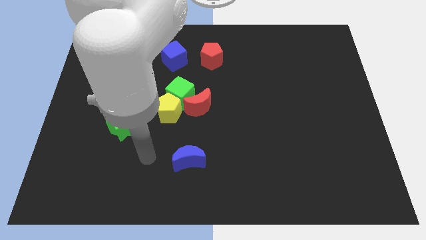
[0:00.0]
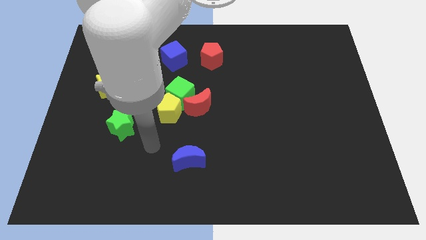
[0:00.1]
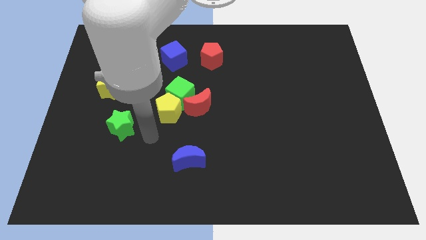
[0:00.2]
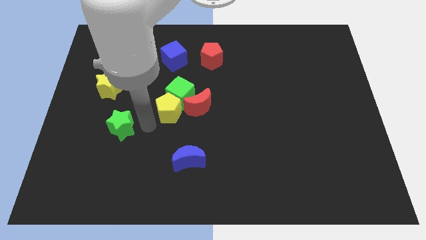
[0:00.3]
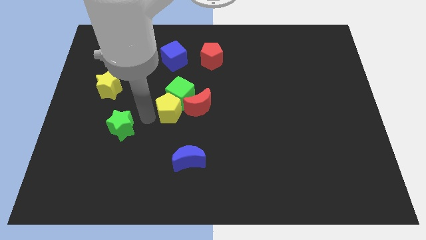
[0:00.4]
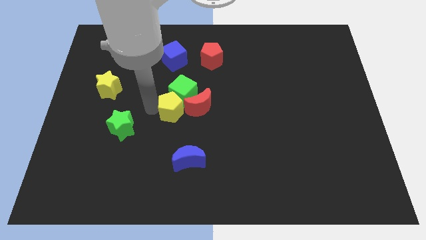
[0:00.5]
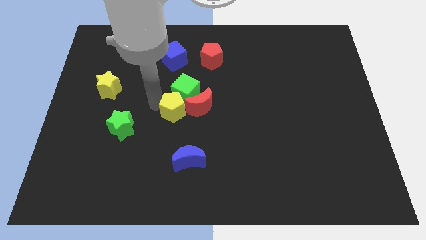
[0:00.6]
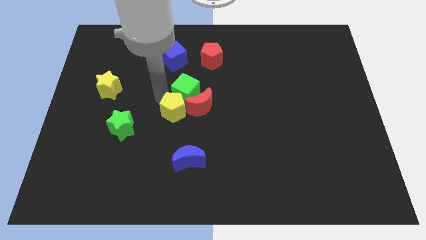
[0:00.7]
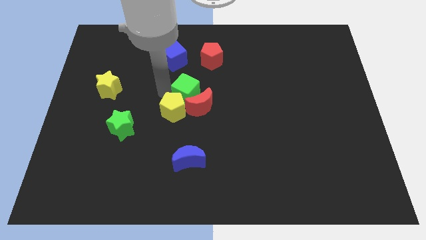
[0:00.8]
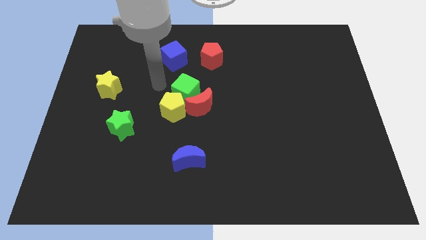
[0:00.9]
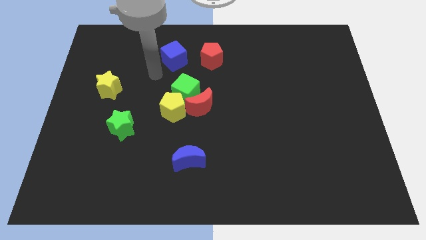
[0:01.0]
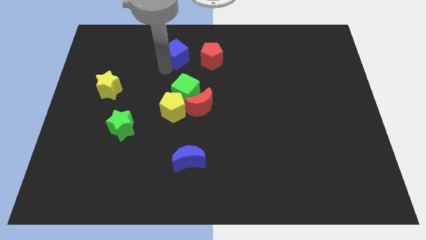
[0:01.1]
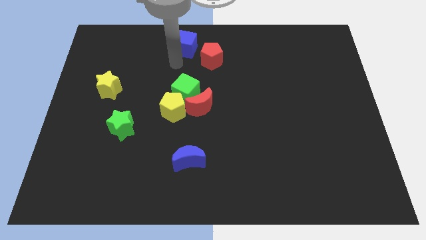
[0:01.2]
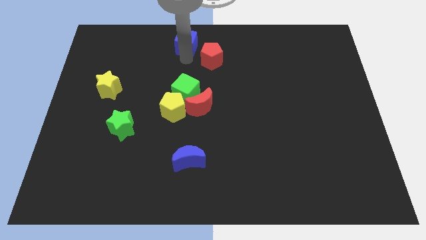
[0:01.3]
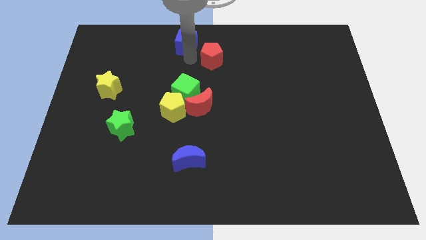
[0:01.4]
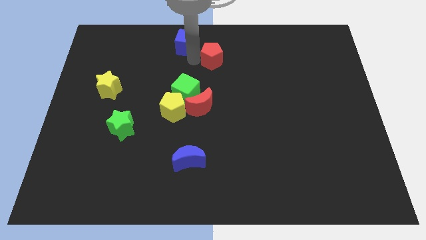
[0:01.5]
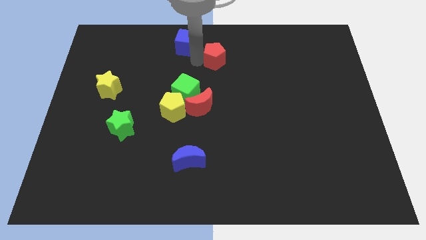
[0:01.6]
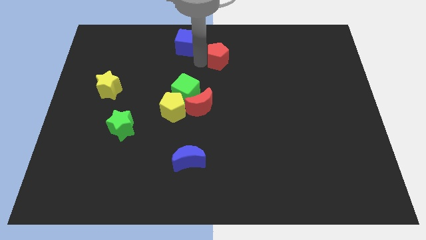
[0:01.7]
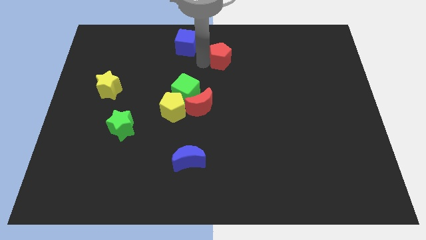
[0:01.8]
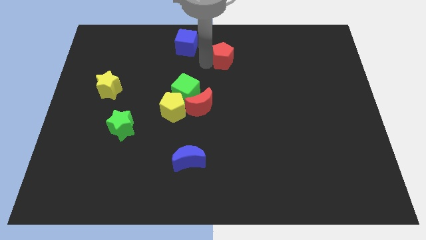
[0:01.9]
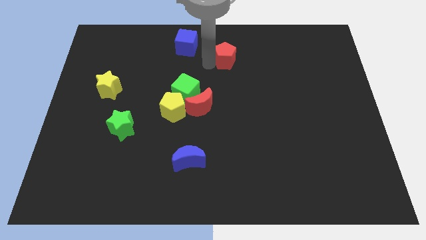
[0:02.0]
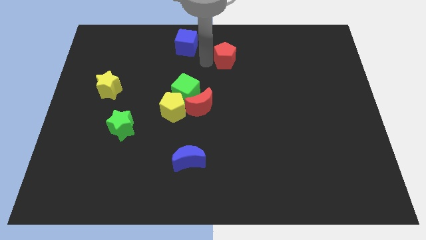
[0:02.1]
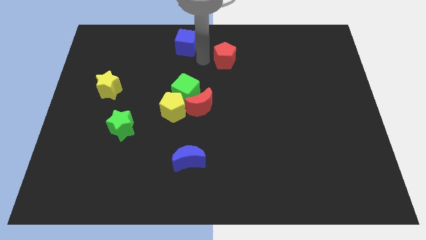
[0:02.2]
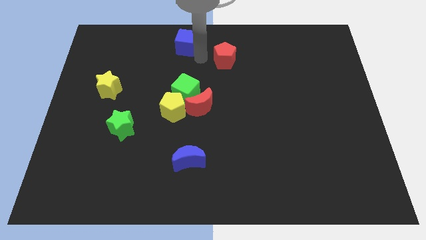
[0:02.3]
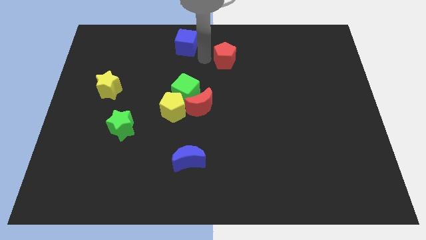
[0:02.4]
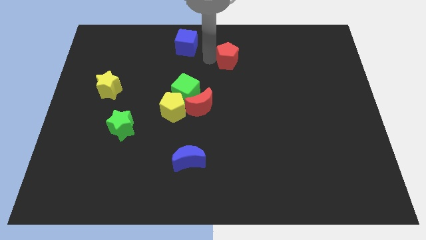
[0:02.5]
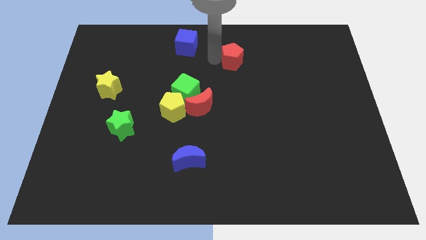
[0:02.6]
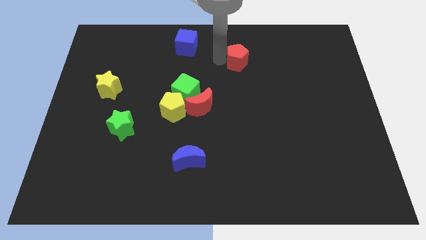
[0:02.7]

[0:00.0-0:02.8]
slightly slide the red pentagon right

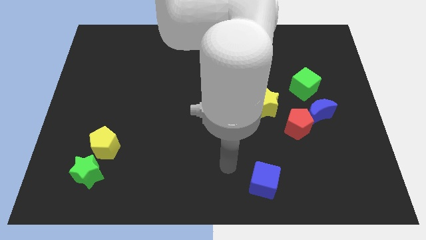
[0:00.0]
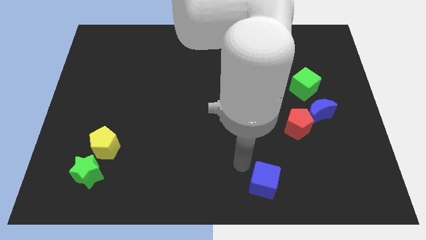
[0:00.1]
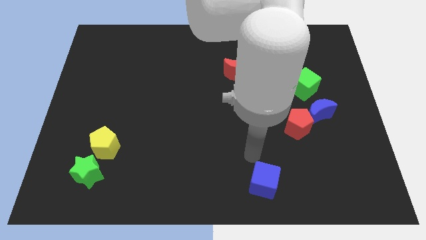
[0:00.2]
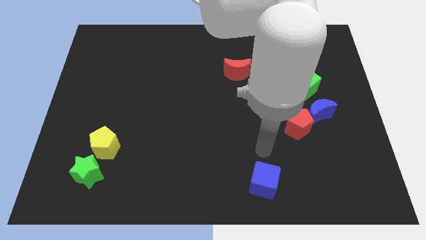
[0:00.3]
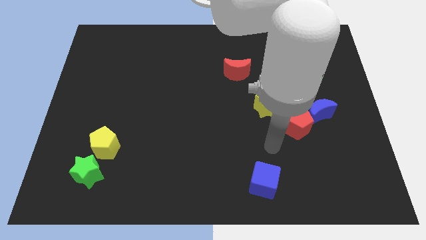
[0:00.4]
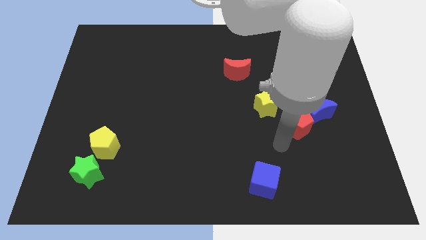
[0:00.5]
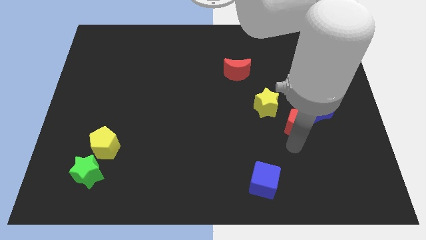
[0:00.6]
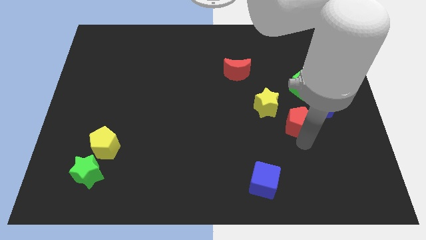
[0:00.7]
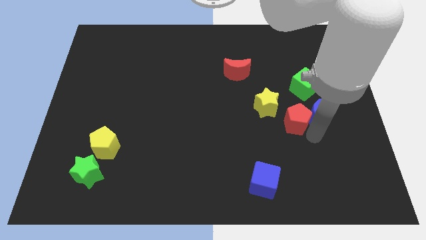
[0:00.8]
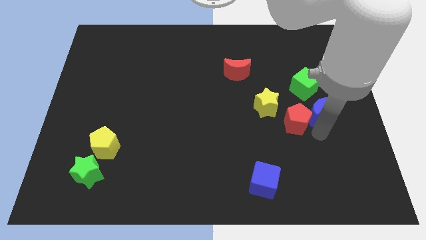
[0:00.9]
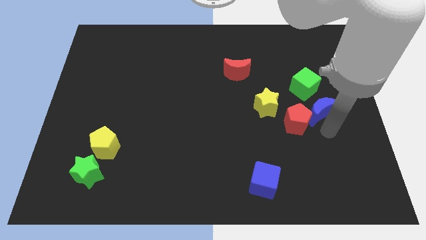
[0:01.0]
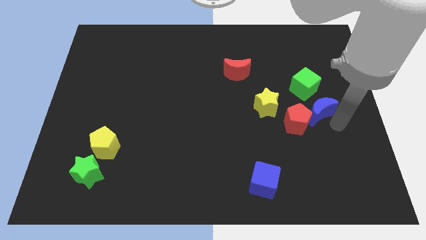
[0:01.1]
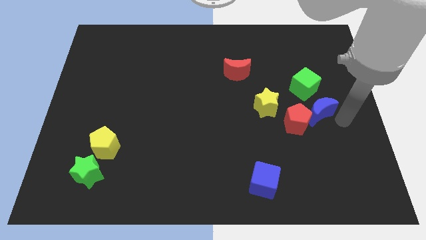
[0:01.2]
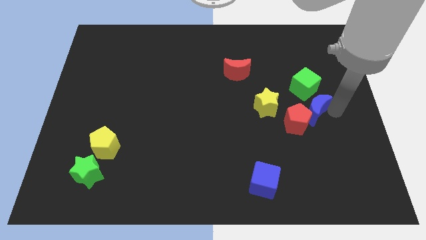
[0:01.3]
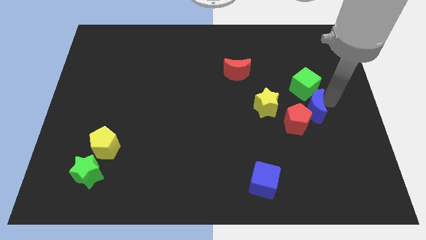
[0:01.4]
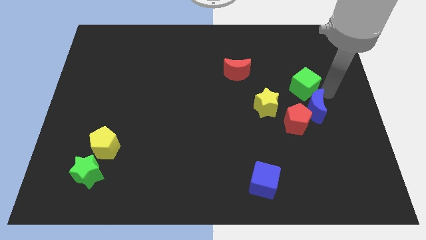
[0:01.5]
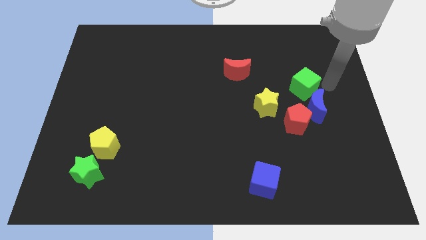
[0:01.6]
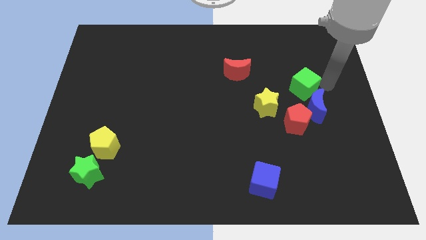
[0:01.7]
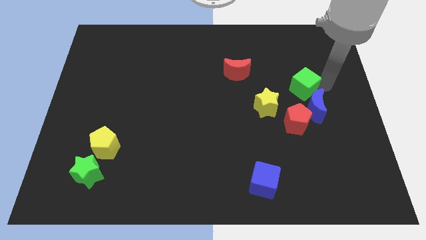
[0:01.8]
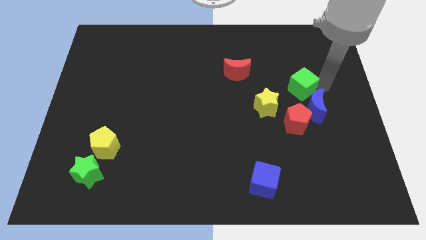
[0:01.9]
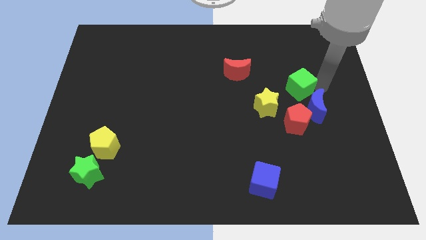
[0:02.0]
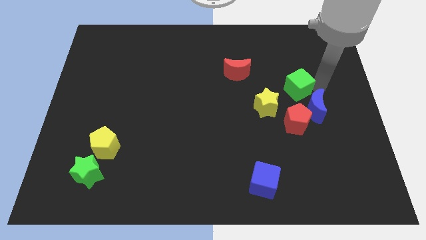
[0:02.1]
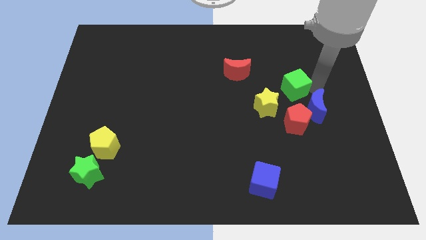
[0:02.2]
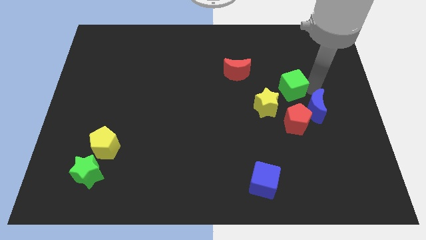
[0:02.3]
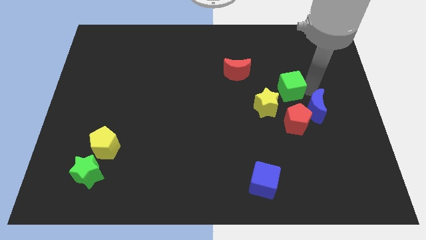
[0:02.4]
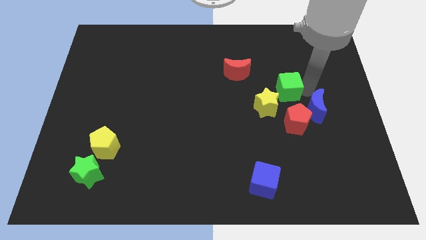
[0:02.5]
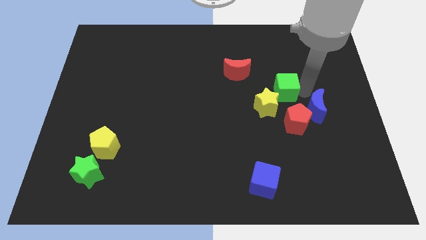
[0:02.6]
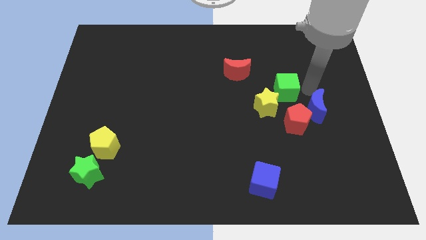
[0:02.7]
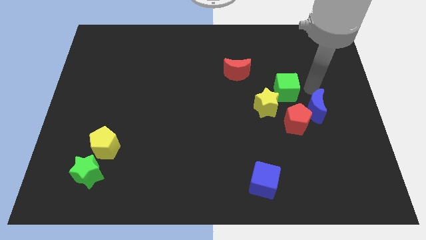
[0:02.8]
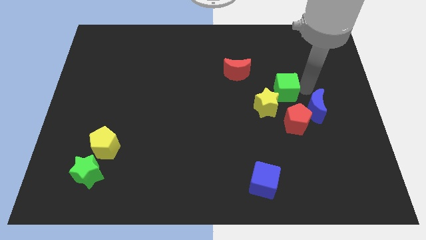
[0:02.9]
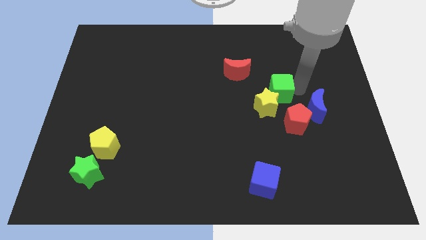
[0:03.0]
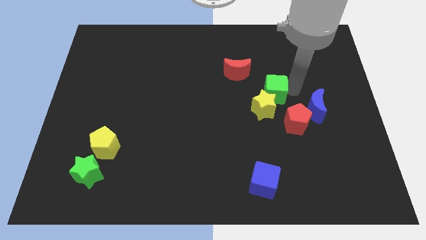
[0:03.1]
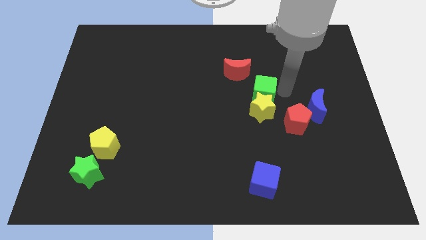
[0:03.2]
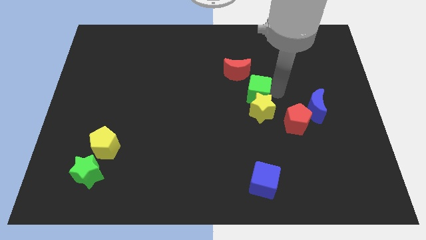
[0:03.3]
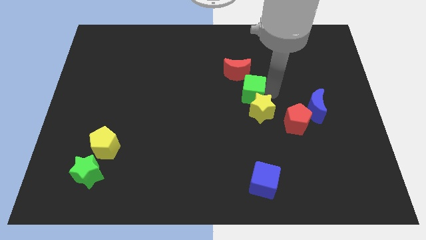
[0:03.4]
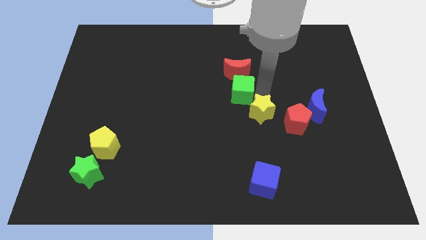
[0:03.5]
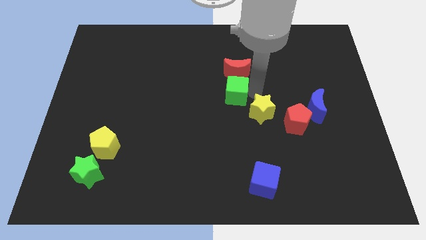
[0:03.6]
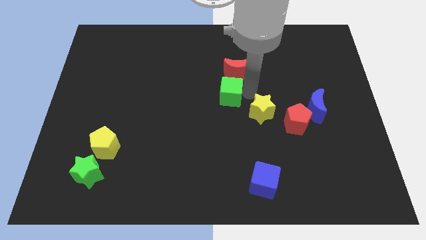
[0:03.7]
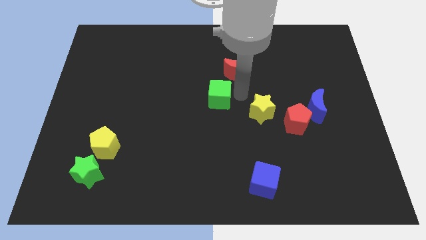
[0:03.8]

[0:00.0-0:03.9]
push the green cube left

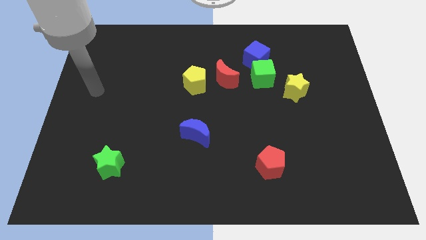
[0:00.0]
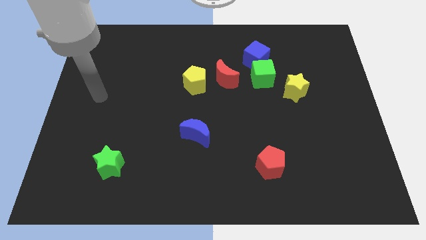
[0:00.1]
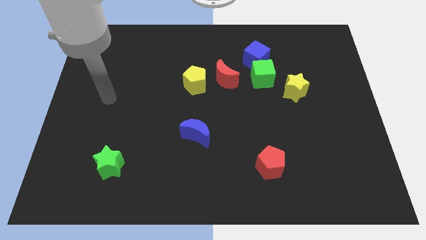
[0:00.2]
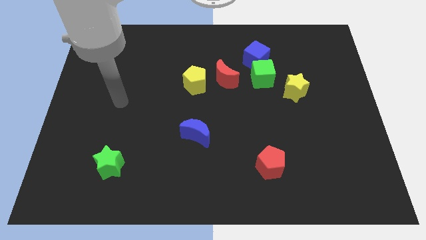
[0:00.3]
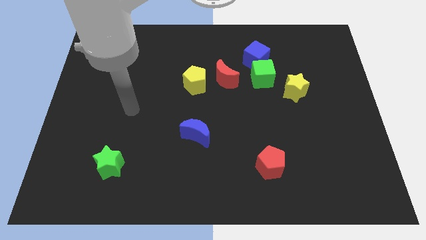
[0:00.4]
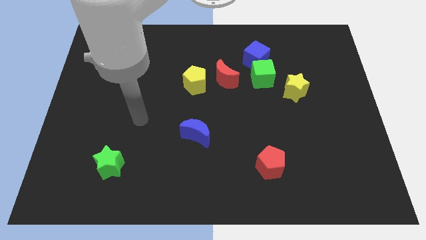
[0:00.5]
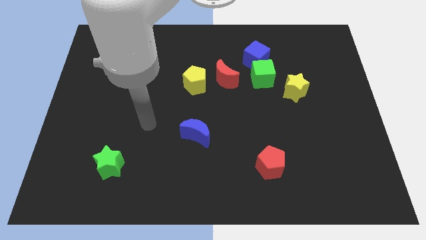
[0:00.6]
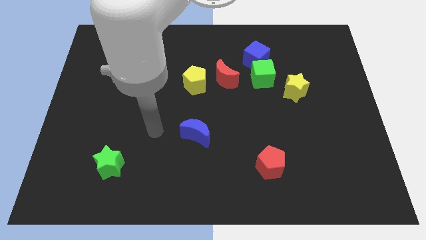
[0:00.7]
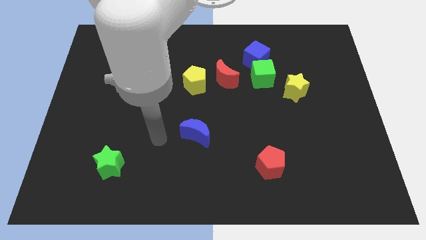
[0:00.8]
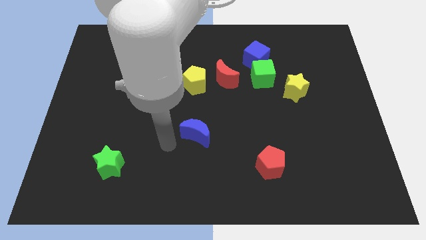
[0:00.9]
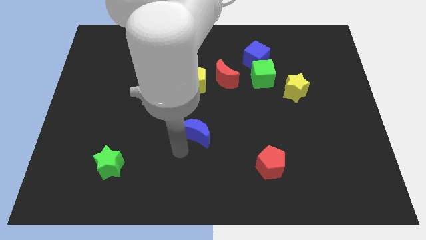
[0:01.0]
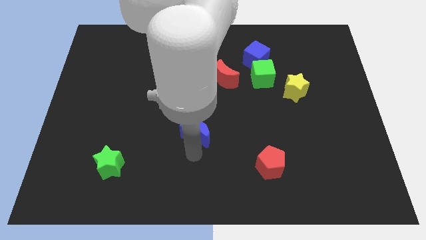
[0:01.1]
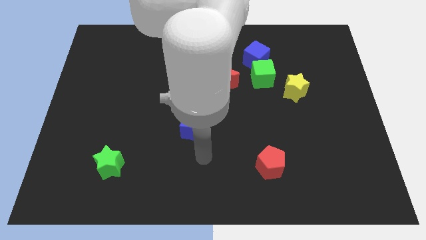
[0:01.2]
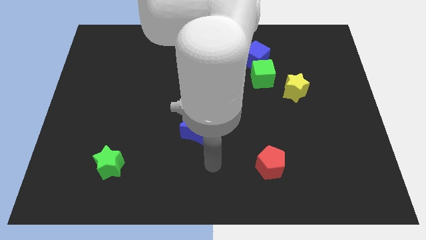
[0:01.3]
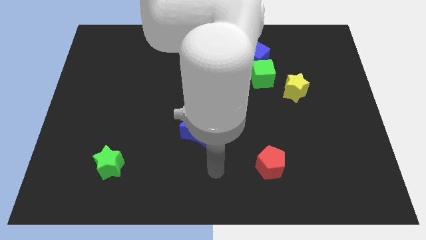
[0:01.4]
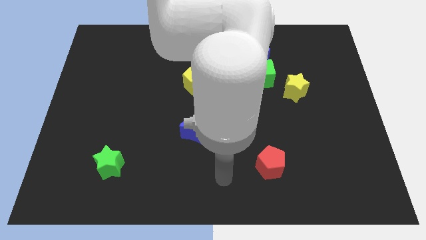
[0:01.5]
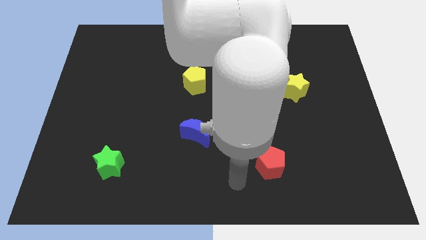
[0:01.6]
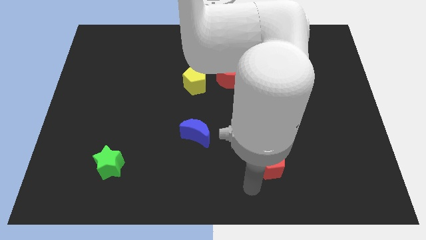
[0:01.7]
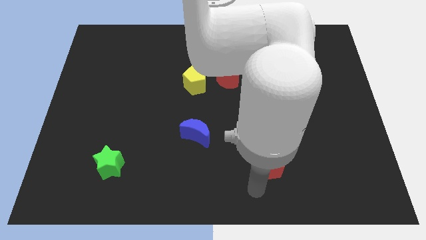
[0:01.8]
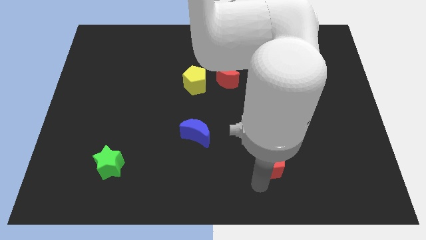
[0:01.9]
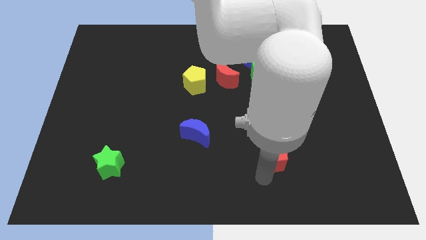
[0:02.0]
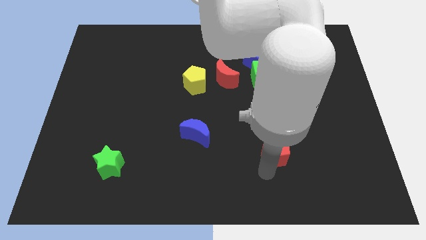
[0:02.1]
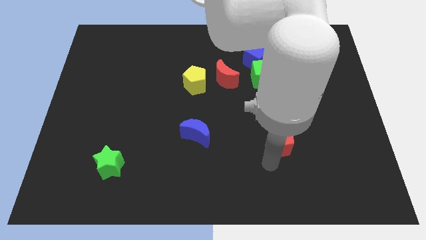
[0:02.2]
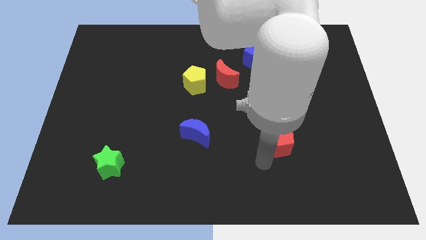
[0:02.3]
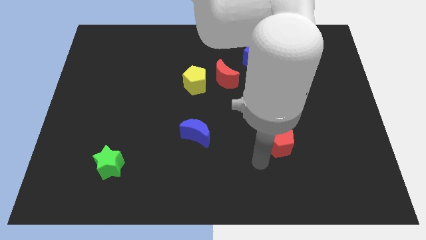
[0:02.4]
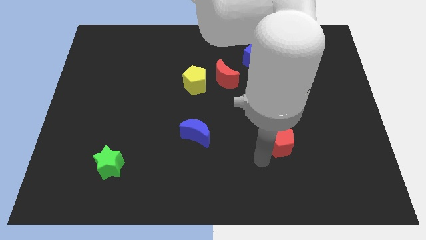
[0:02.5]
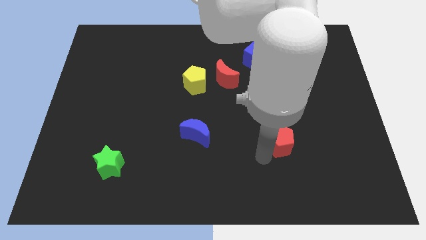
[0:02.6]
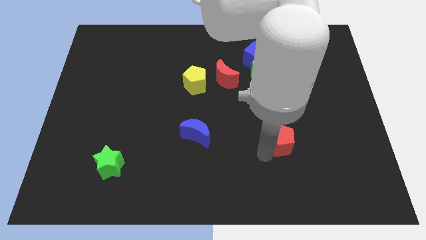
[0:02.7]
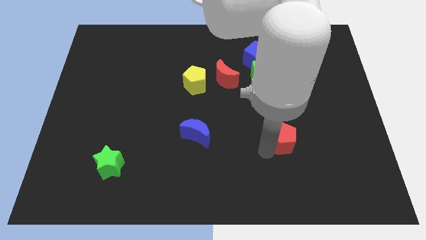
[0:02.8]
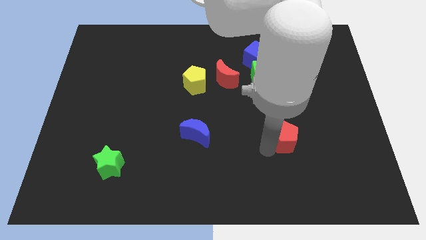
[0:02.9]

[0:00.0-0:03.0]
push the red pentagon a bit up and right diagonally
